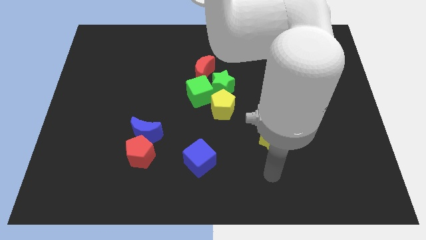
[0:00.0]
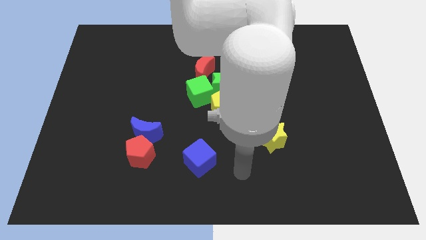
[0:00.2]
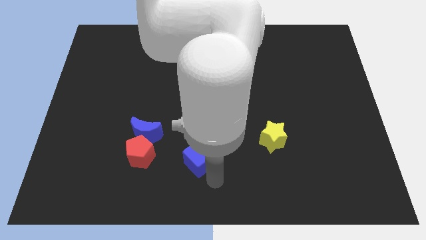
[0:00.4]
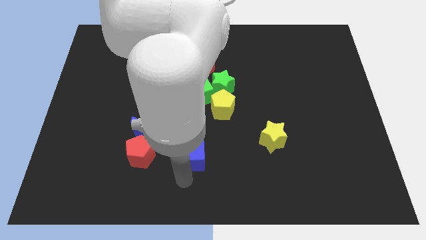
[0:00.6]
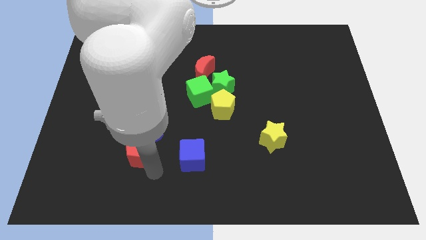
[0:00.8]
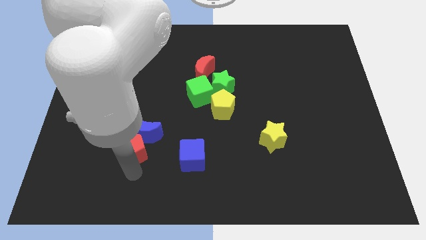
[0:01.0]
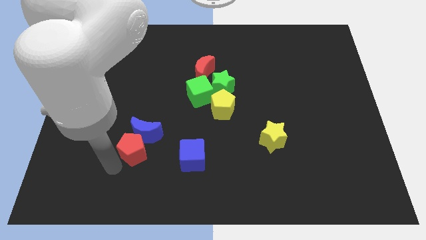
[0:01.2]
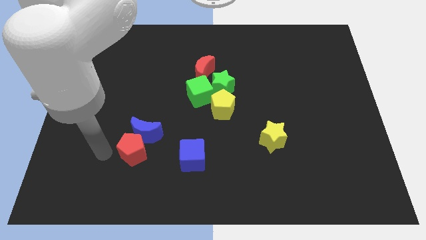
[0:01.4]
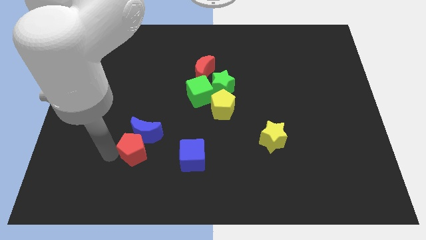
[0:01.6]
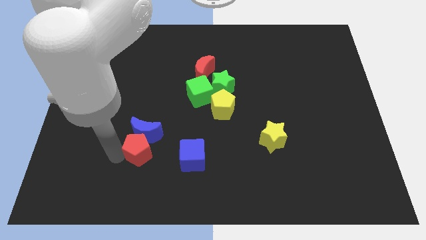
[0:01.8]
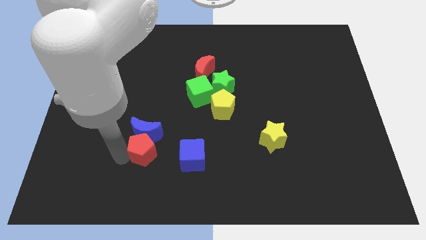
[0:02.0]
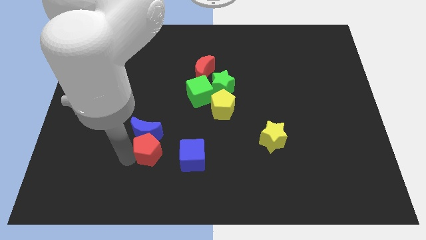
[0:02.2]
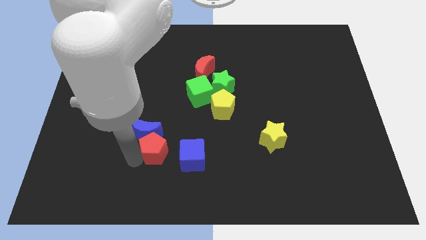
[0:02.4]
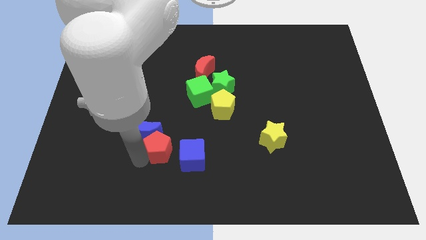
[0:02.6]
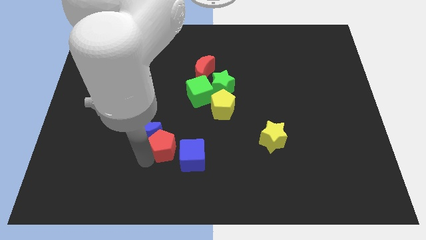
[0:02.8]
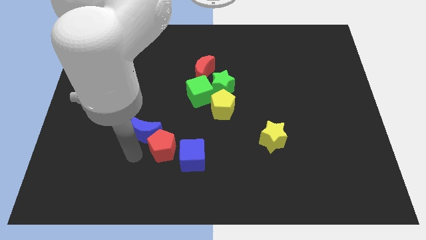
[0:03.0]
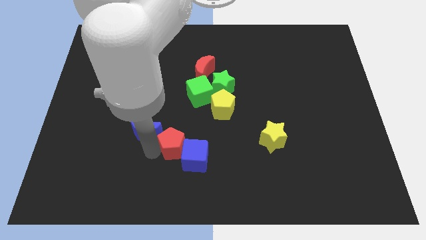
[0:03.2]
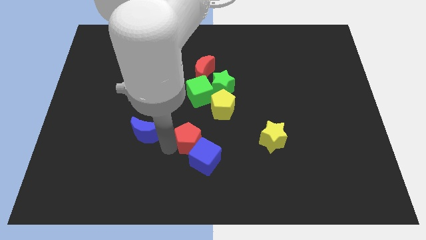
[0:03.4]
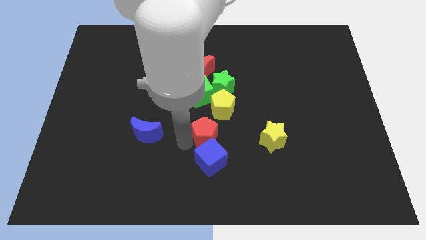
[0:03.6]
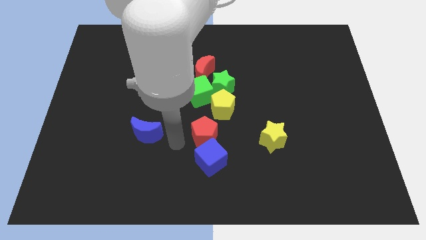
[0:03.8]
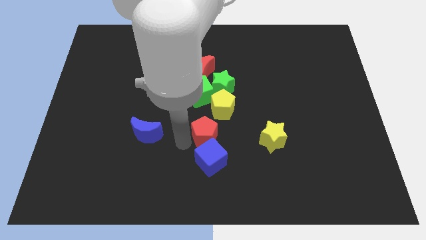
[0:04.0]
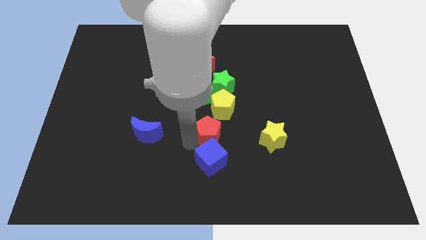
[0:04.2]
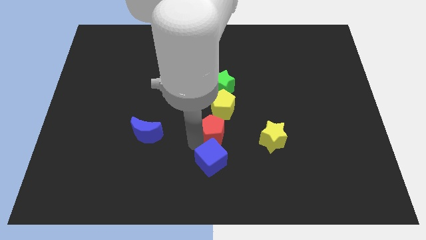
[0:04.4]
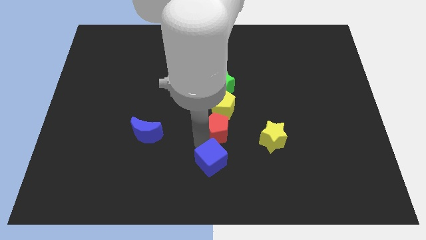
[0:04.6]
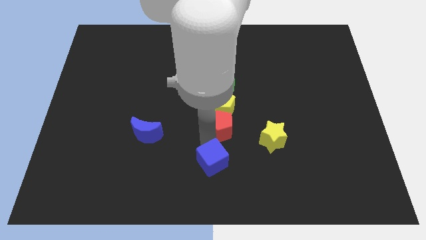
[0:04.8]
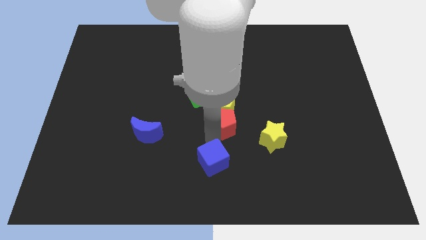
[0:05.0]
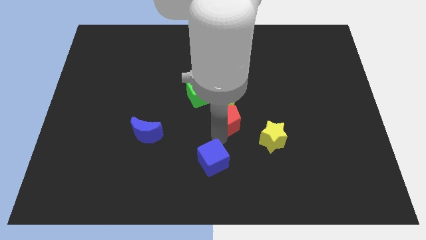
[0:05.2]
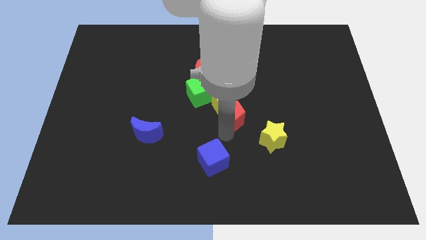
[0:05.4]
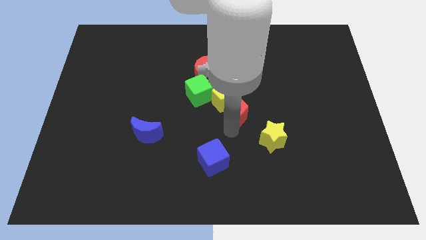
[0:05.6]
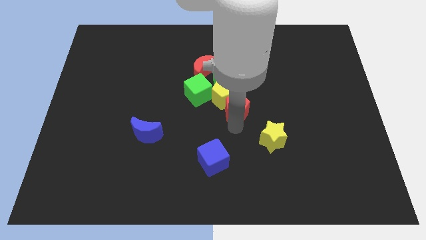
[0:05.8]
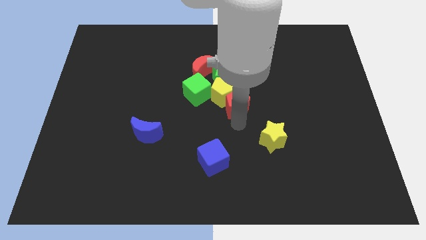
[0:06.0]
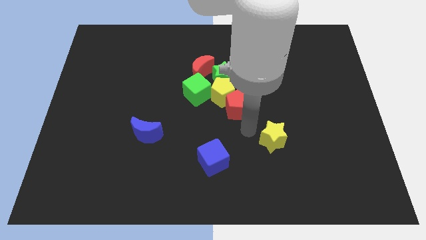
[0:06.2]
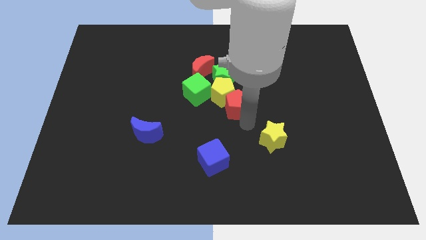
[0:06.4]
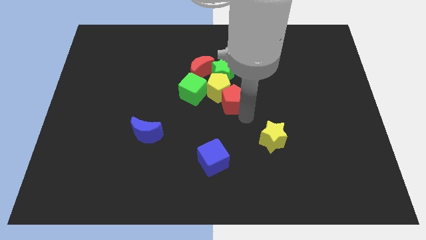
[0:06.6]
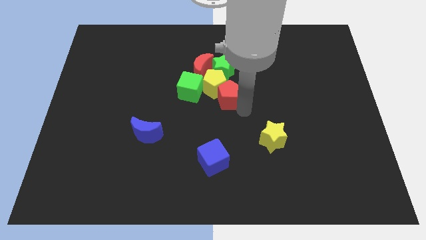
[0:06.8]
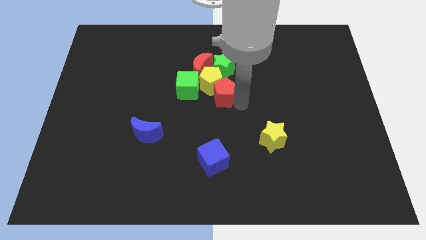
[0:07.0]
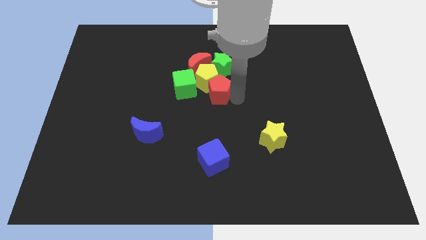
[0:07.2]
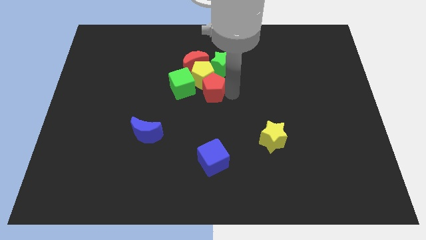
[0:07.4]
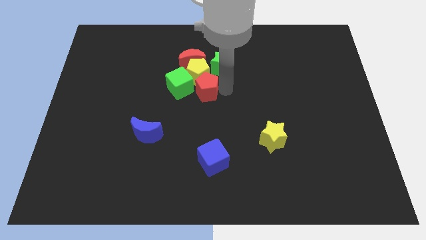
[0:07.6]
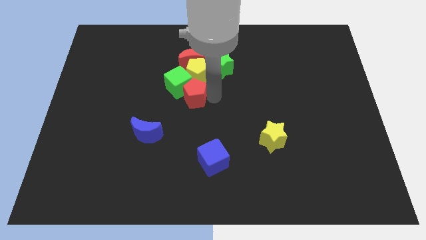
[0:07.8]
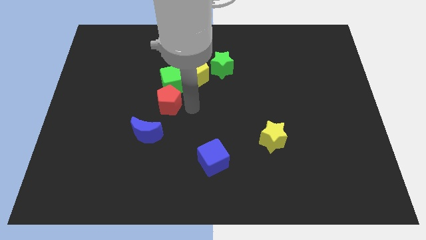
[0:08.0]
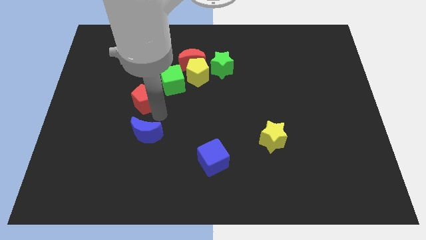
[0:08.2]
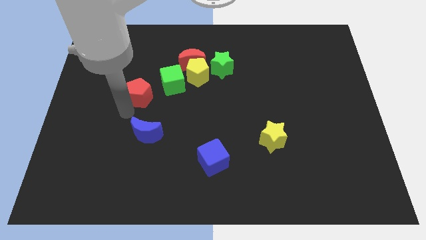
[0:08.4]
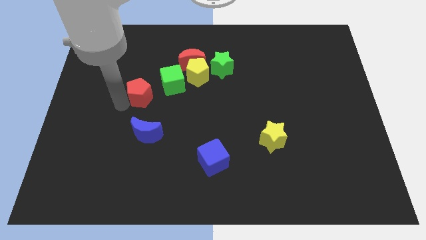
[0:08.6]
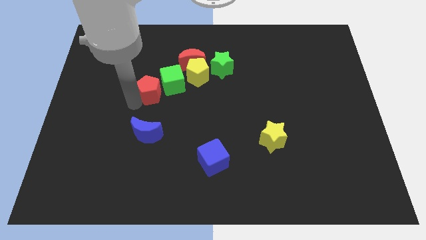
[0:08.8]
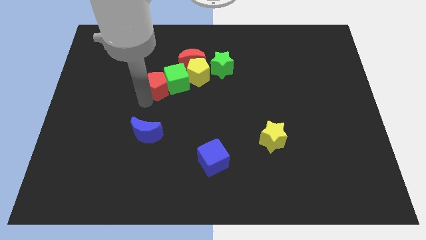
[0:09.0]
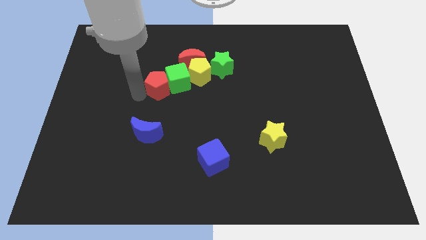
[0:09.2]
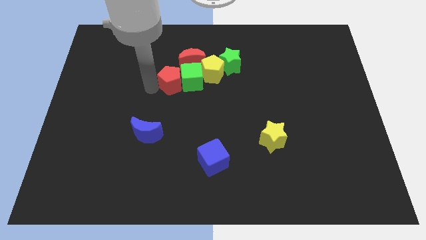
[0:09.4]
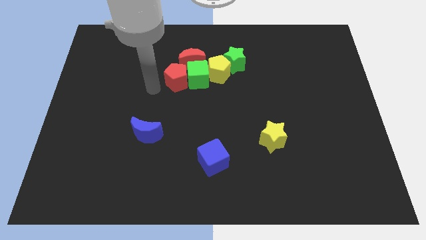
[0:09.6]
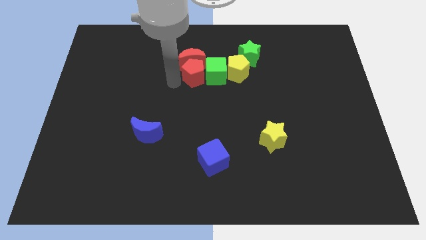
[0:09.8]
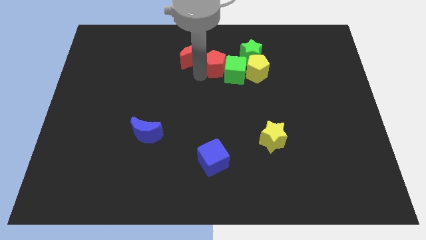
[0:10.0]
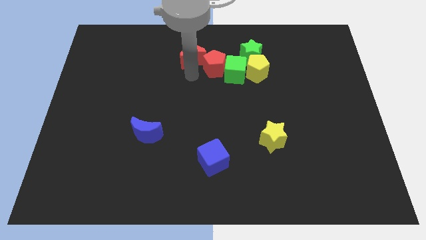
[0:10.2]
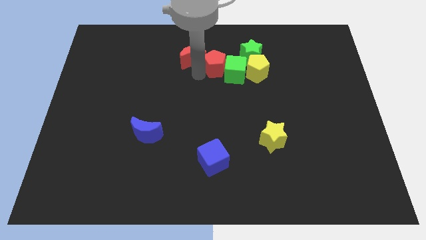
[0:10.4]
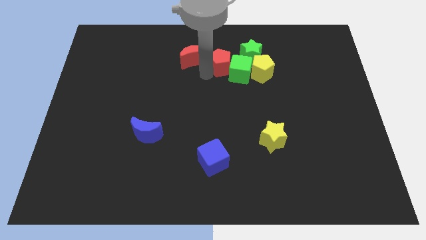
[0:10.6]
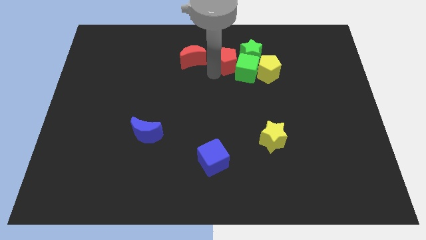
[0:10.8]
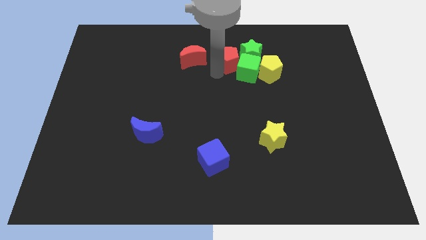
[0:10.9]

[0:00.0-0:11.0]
move the red pentagon to the green star

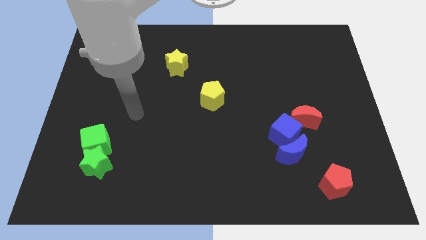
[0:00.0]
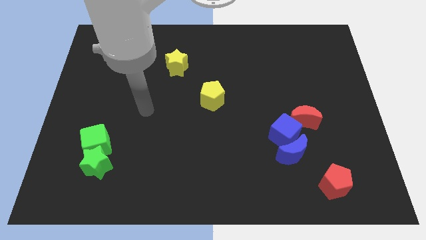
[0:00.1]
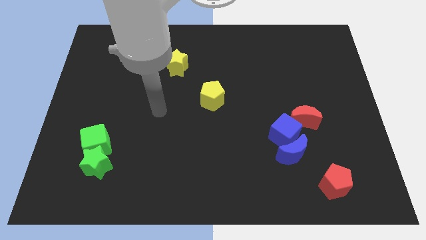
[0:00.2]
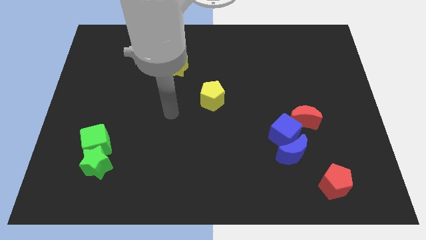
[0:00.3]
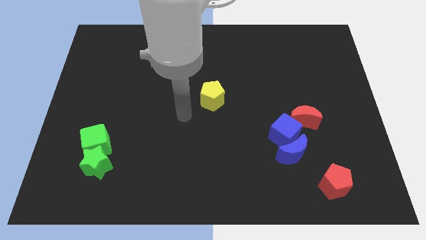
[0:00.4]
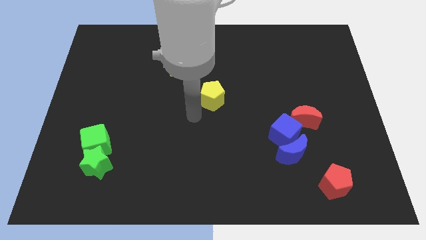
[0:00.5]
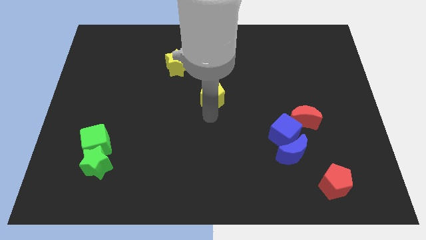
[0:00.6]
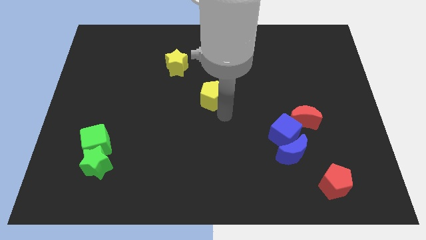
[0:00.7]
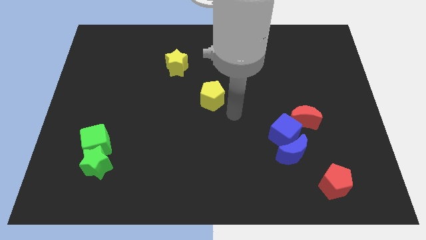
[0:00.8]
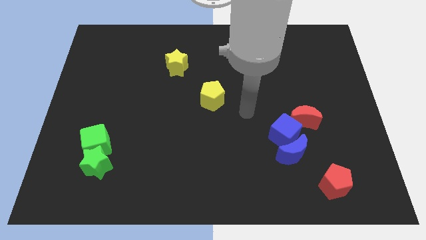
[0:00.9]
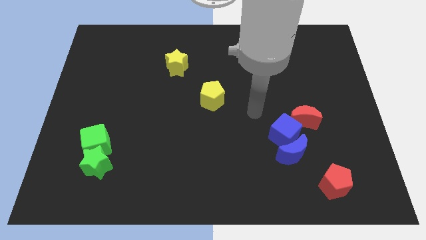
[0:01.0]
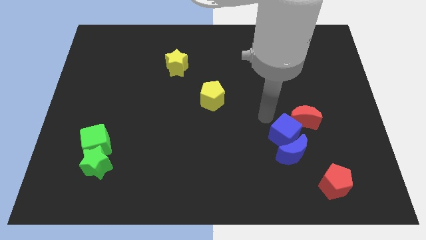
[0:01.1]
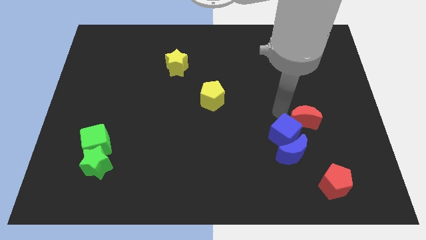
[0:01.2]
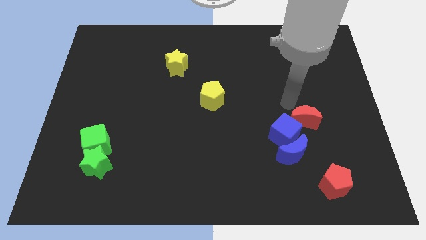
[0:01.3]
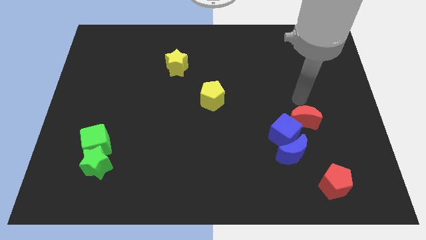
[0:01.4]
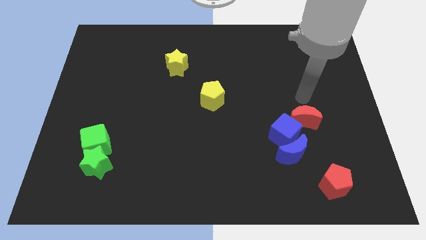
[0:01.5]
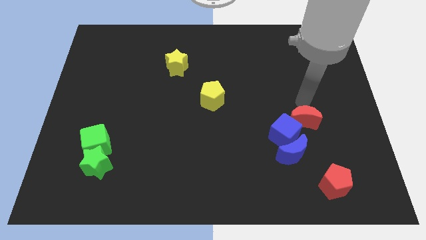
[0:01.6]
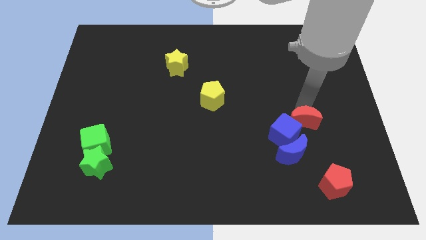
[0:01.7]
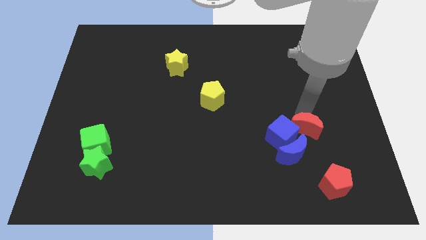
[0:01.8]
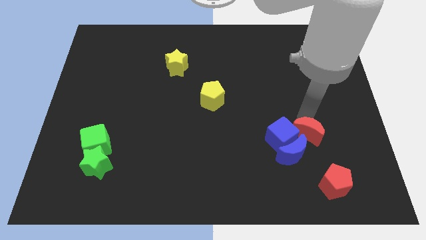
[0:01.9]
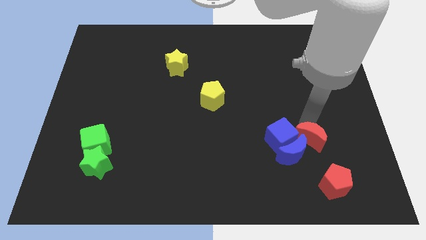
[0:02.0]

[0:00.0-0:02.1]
push the red moon to the blue moon
